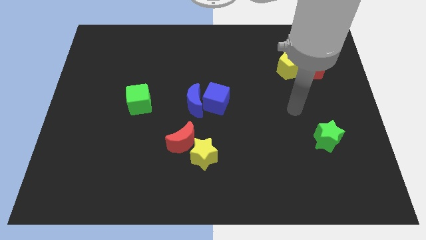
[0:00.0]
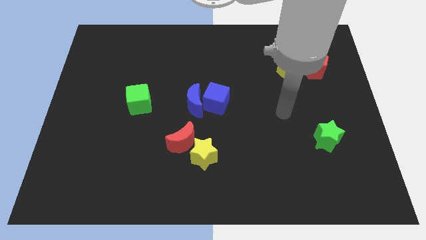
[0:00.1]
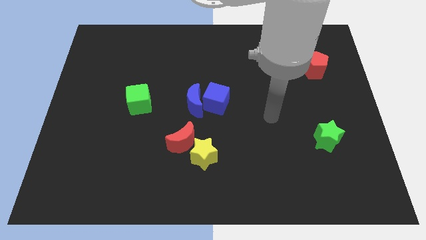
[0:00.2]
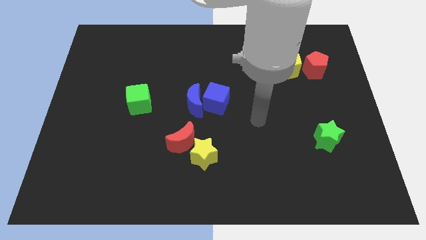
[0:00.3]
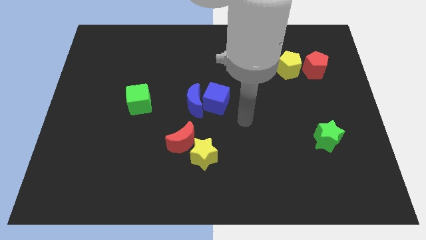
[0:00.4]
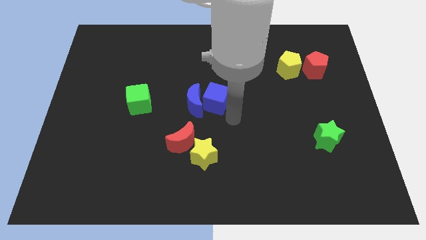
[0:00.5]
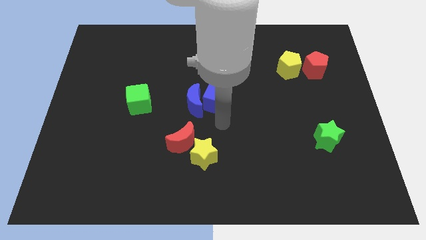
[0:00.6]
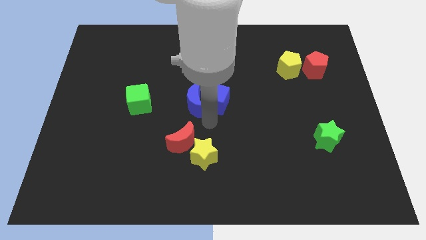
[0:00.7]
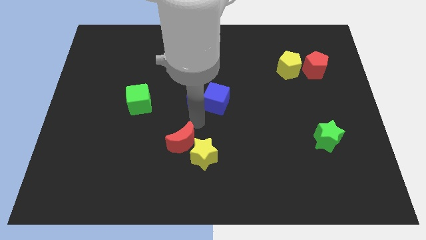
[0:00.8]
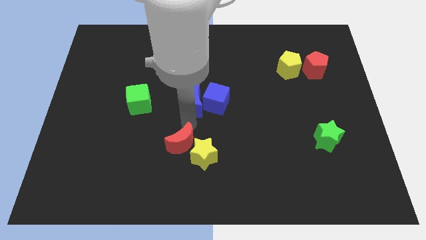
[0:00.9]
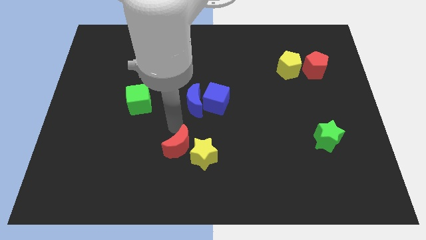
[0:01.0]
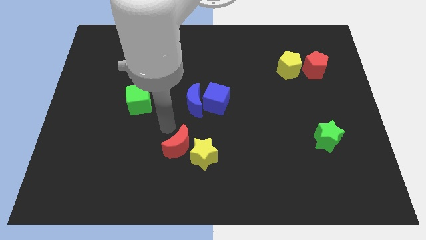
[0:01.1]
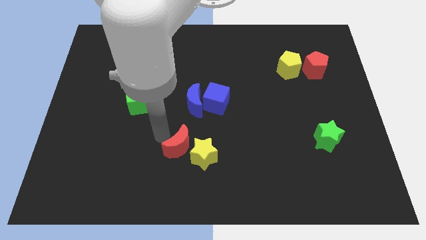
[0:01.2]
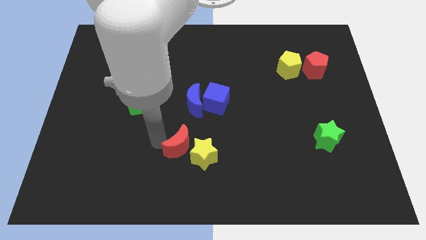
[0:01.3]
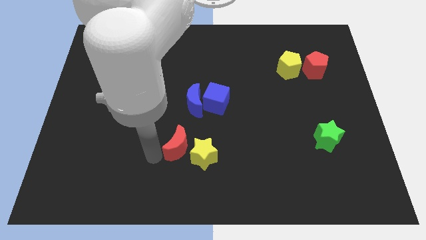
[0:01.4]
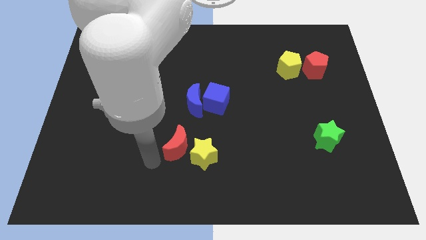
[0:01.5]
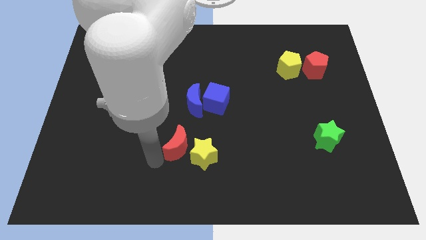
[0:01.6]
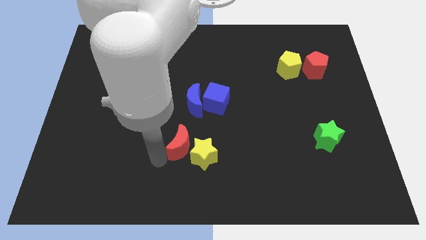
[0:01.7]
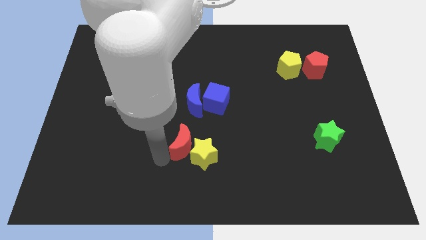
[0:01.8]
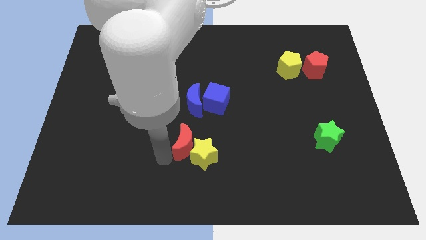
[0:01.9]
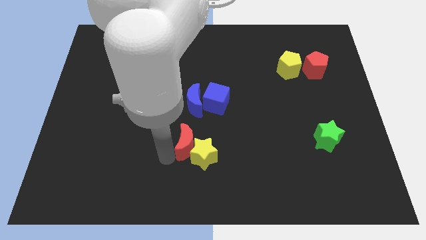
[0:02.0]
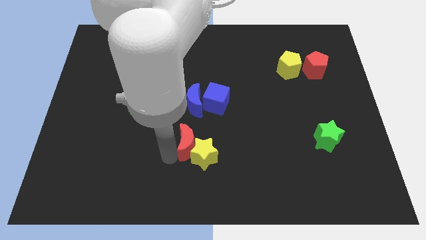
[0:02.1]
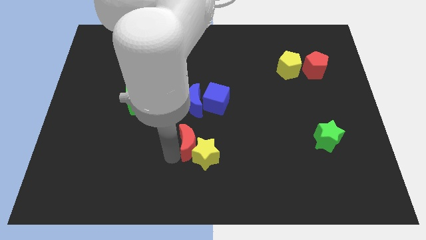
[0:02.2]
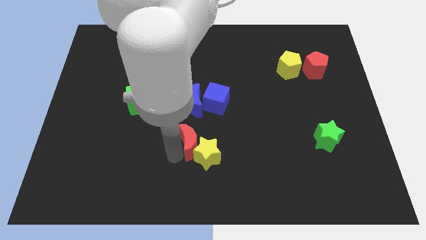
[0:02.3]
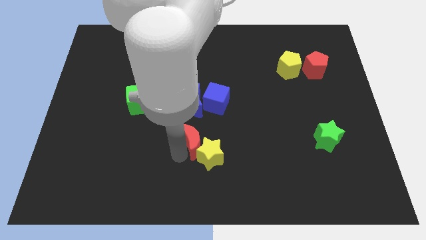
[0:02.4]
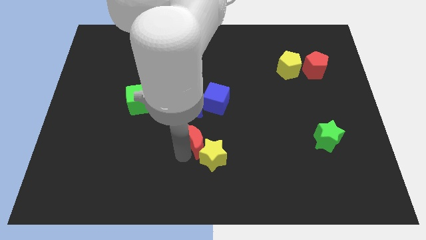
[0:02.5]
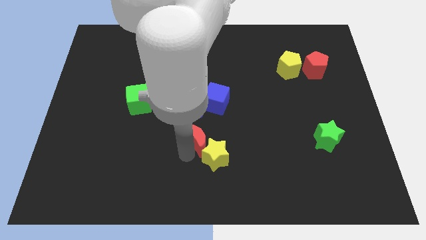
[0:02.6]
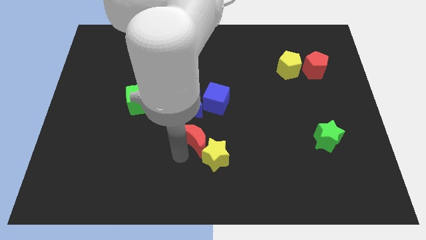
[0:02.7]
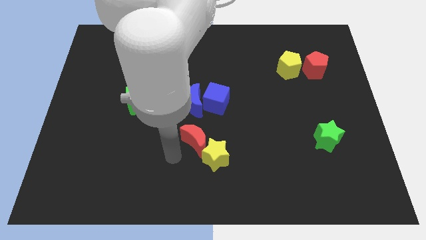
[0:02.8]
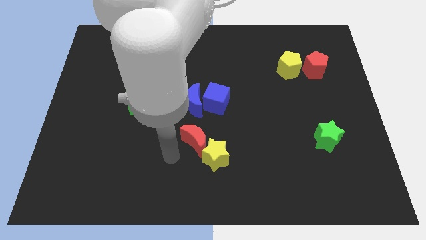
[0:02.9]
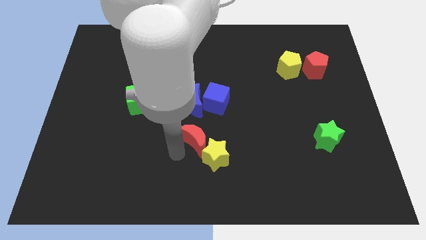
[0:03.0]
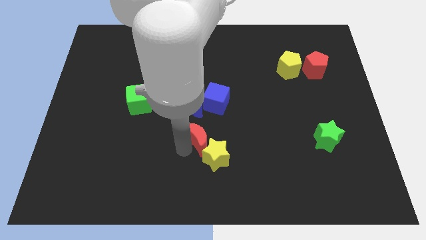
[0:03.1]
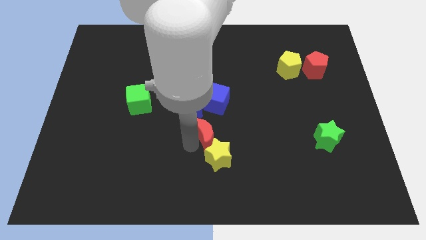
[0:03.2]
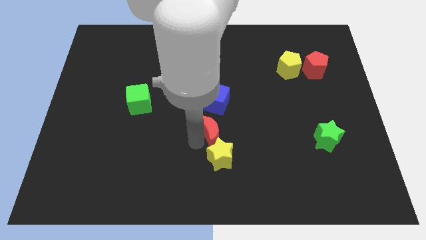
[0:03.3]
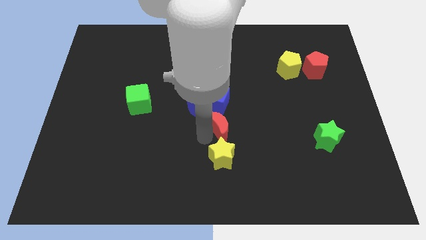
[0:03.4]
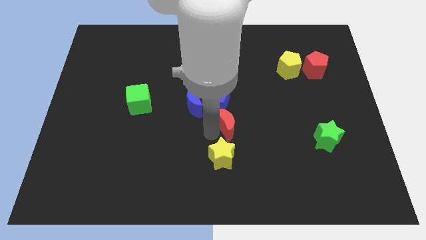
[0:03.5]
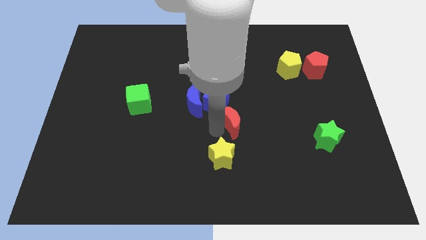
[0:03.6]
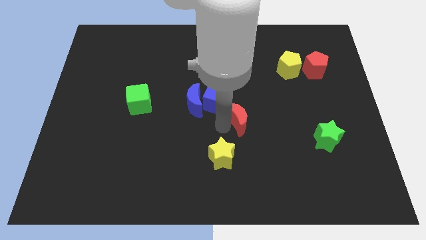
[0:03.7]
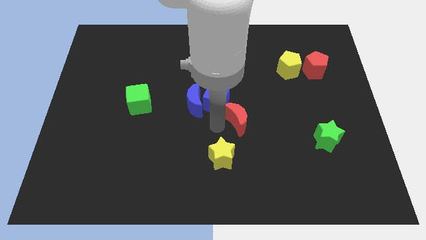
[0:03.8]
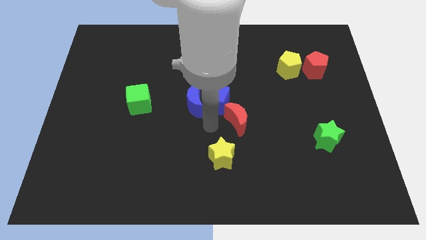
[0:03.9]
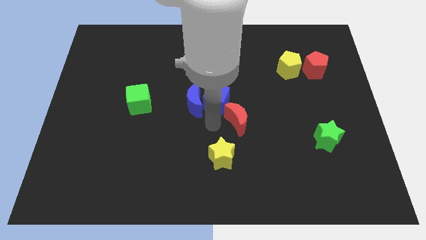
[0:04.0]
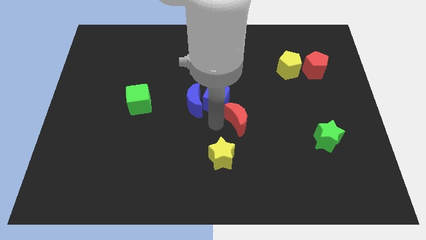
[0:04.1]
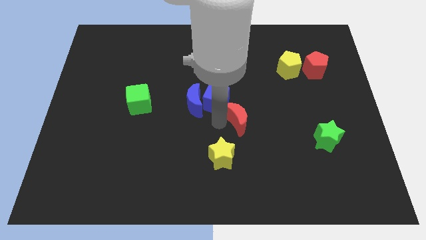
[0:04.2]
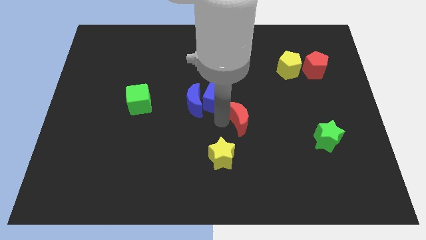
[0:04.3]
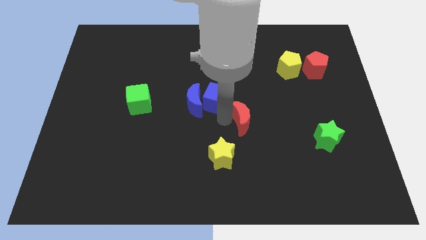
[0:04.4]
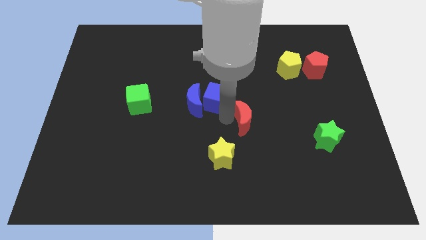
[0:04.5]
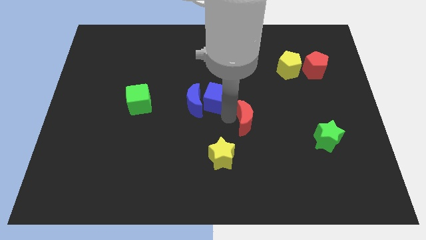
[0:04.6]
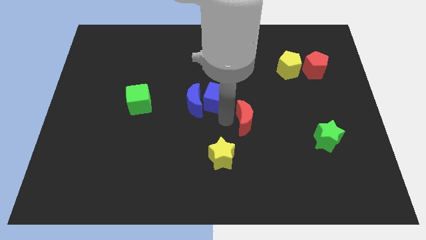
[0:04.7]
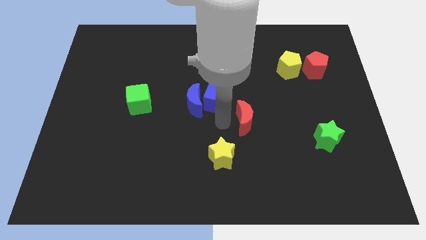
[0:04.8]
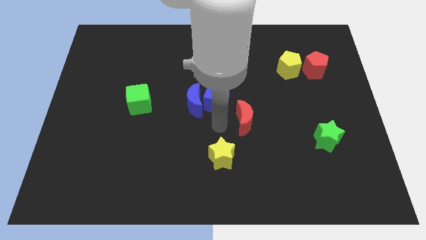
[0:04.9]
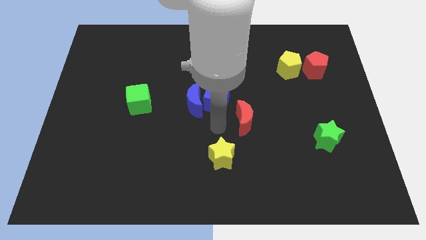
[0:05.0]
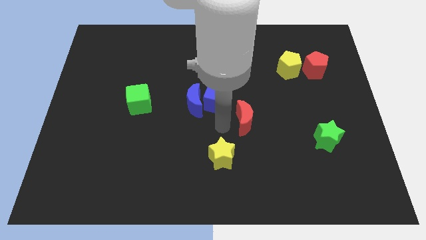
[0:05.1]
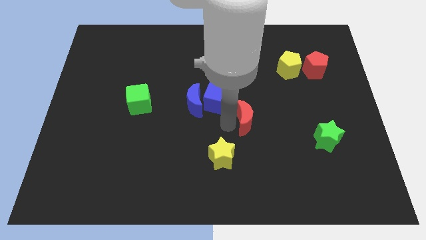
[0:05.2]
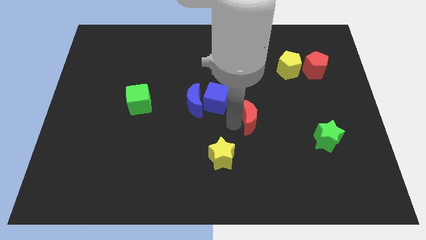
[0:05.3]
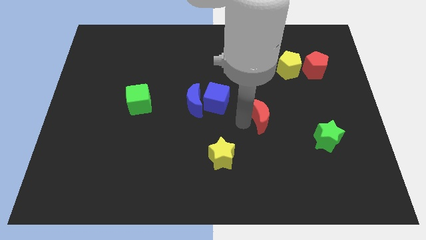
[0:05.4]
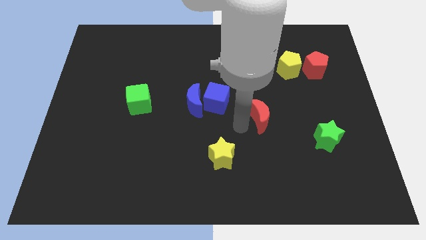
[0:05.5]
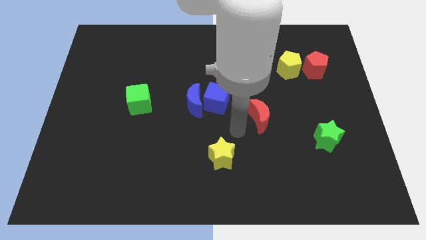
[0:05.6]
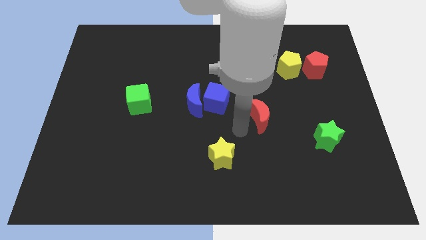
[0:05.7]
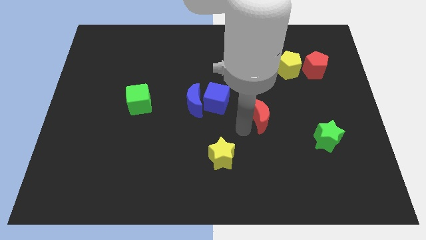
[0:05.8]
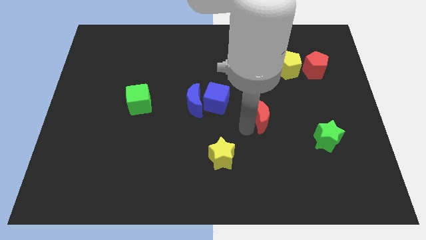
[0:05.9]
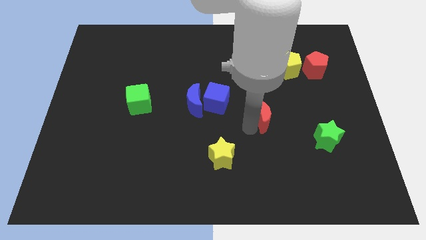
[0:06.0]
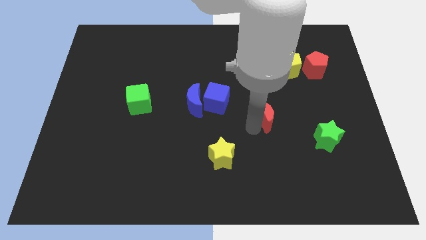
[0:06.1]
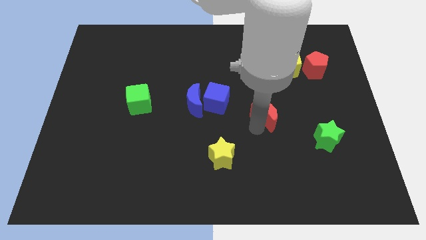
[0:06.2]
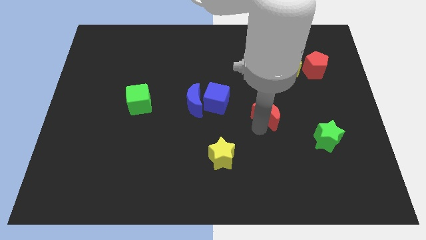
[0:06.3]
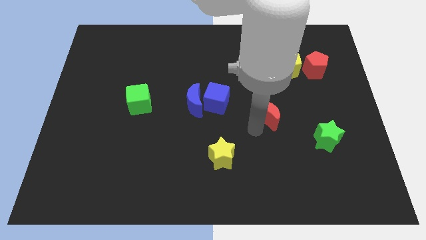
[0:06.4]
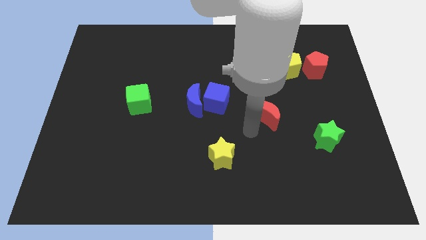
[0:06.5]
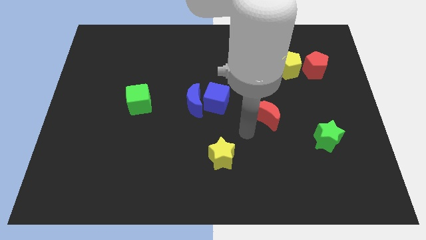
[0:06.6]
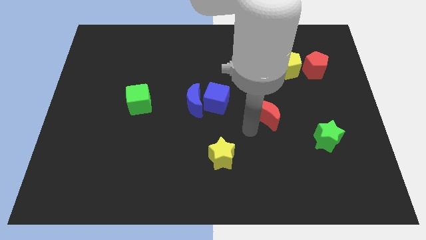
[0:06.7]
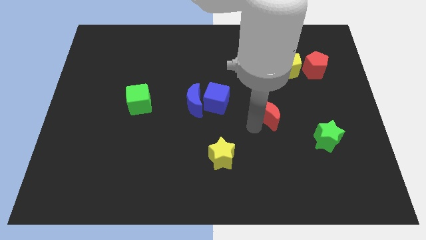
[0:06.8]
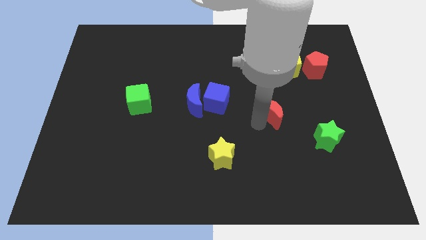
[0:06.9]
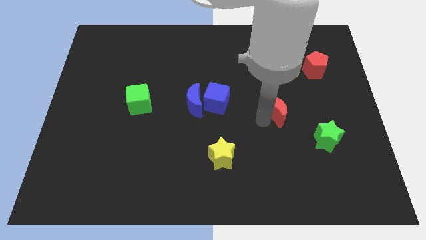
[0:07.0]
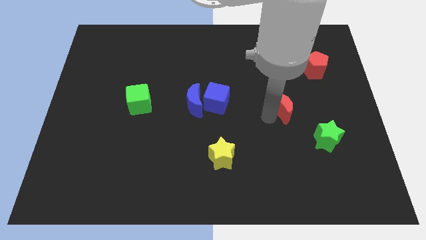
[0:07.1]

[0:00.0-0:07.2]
push the red moon below the yellow pentagon
